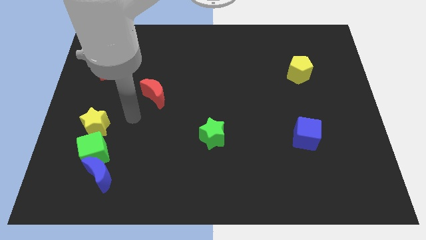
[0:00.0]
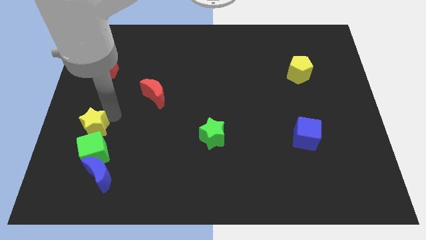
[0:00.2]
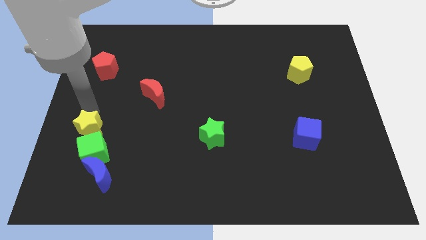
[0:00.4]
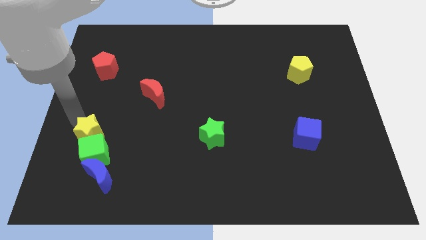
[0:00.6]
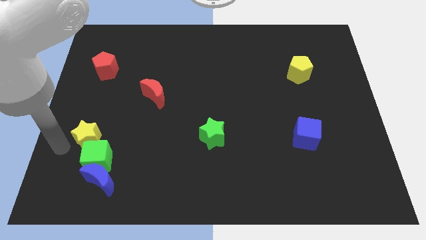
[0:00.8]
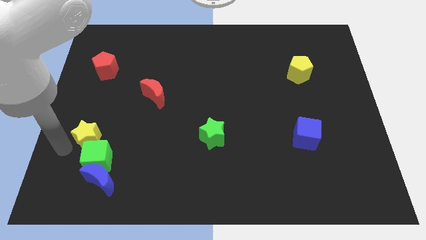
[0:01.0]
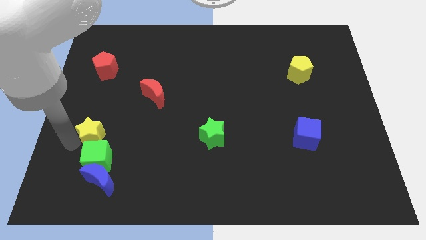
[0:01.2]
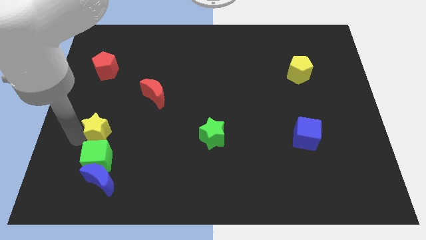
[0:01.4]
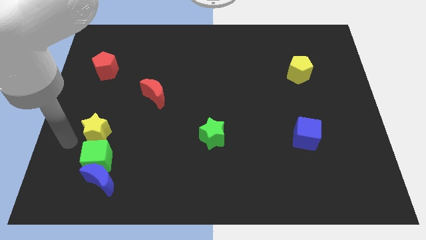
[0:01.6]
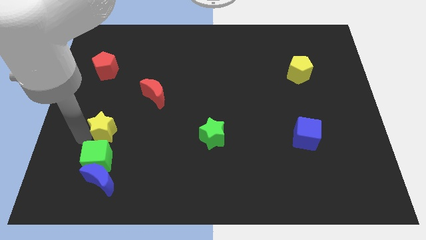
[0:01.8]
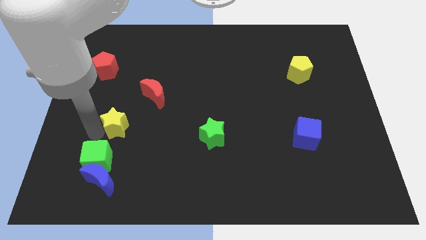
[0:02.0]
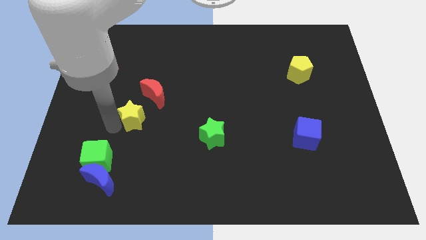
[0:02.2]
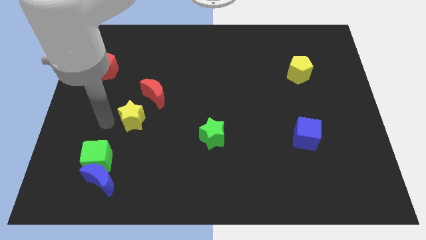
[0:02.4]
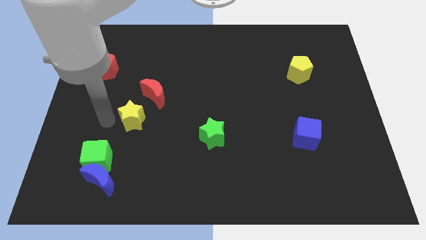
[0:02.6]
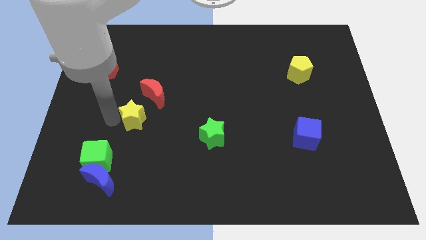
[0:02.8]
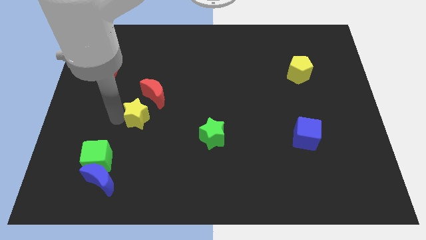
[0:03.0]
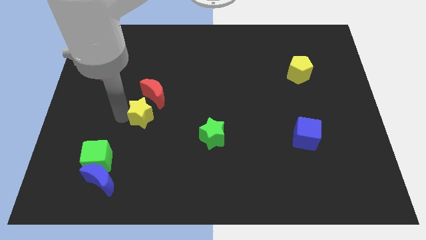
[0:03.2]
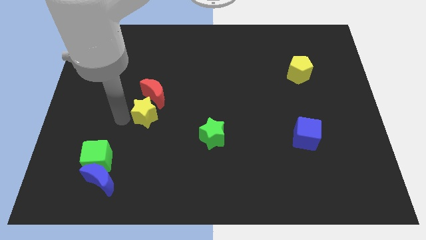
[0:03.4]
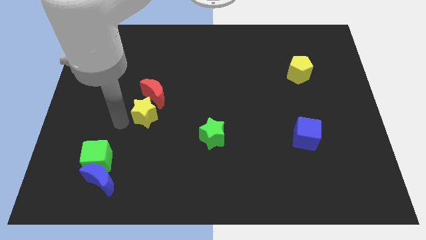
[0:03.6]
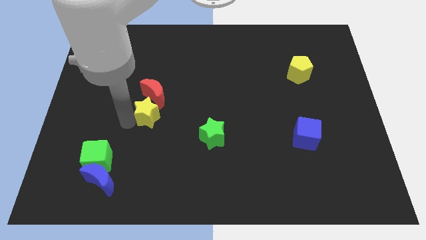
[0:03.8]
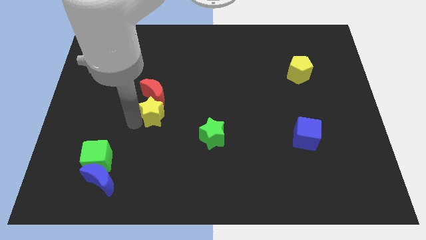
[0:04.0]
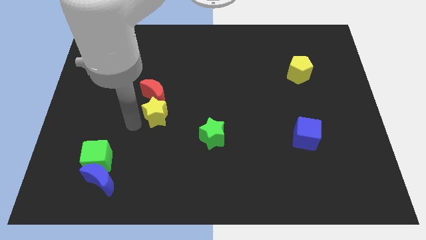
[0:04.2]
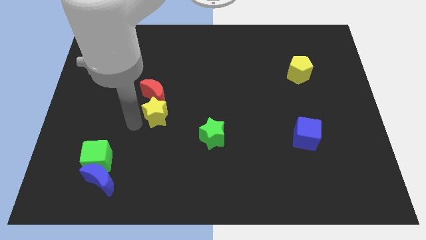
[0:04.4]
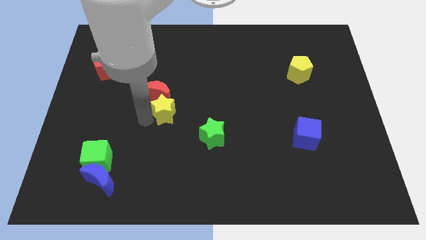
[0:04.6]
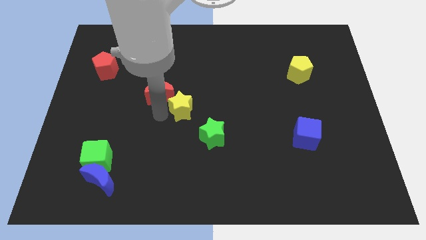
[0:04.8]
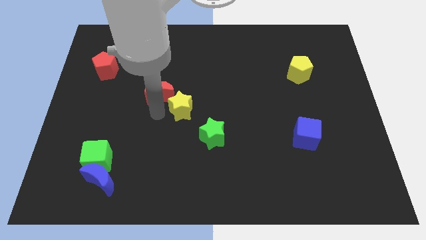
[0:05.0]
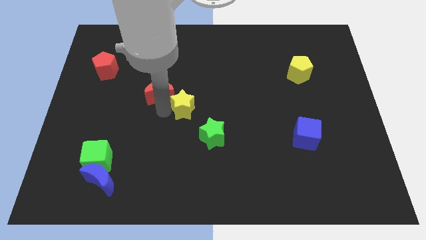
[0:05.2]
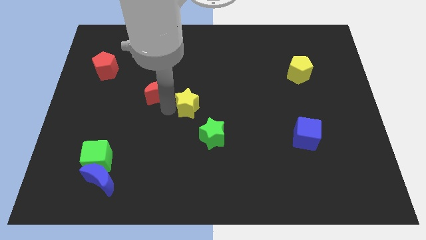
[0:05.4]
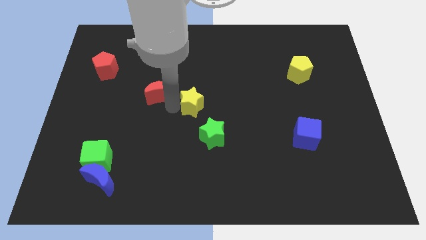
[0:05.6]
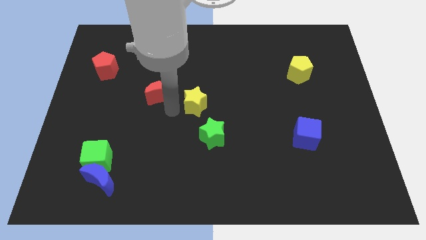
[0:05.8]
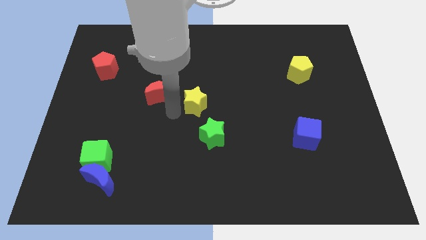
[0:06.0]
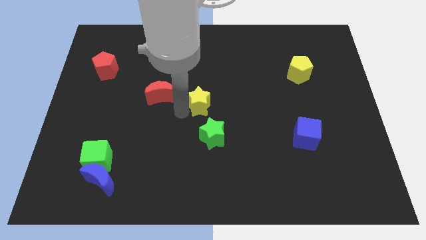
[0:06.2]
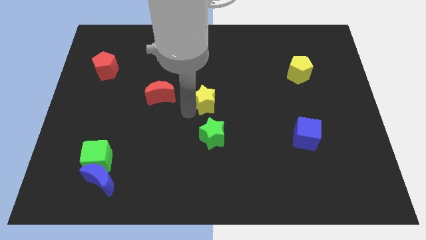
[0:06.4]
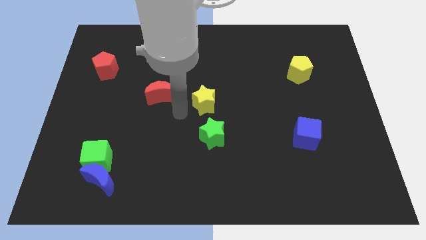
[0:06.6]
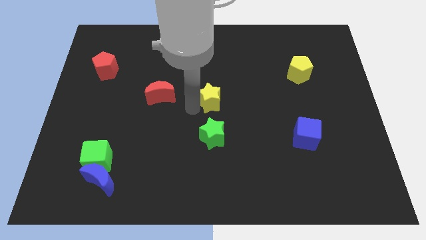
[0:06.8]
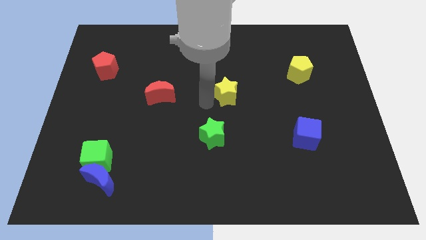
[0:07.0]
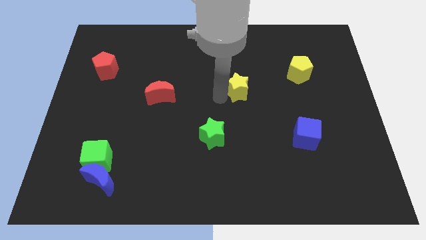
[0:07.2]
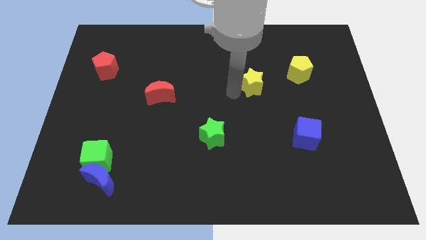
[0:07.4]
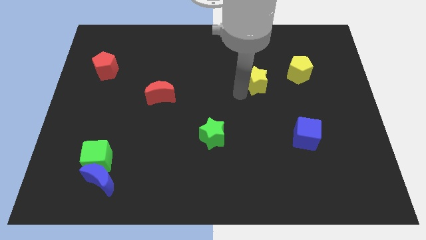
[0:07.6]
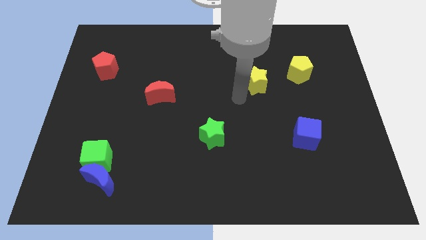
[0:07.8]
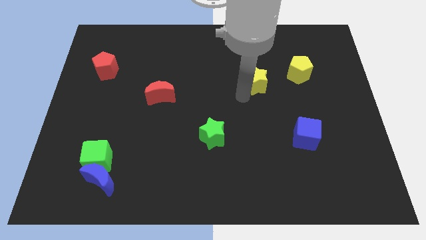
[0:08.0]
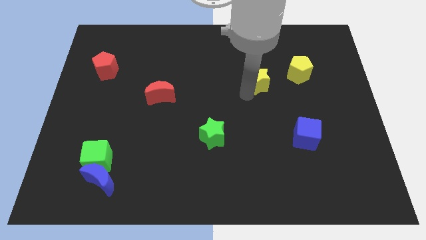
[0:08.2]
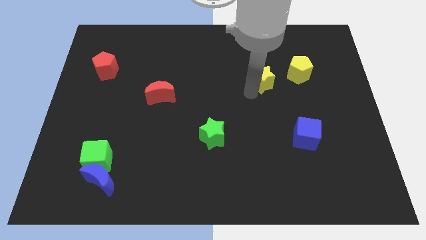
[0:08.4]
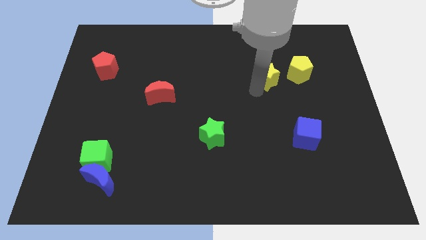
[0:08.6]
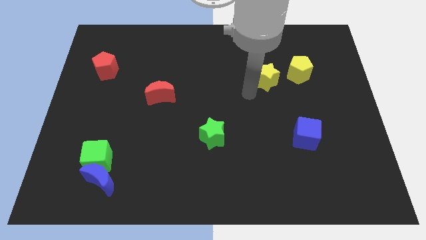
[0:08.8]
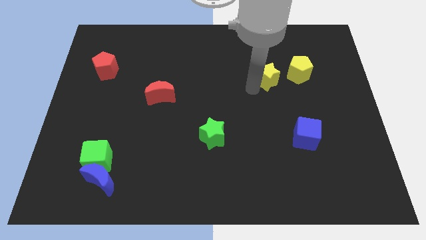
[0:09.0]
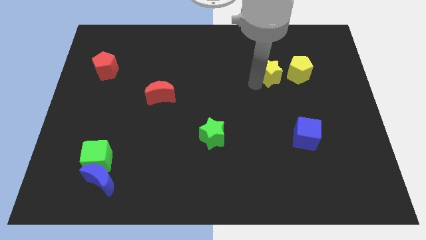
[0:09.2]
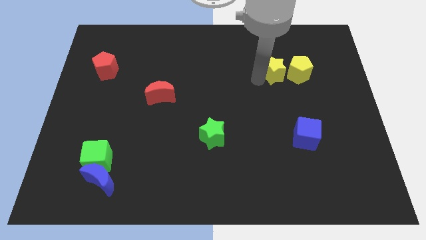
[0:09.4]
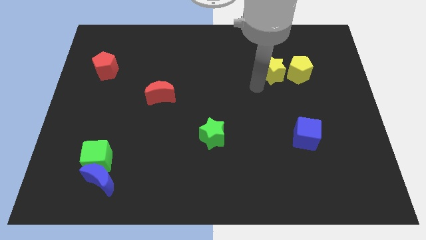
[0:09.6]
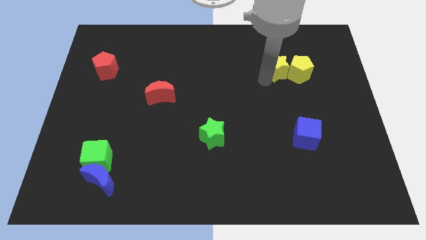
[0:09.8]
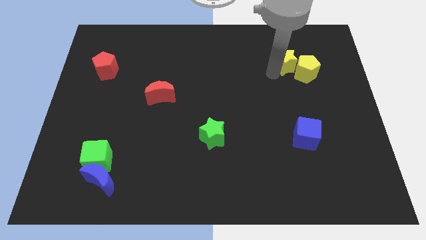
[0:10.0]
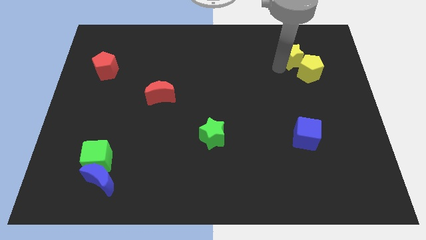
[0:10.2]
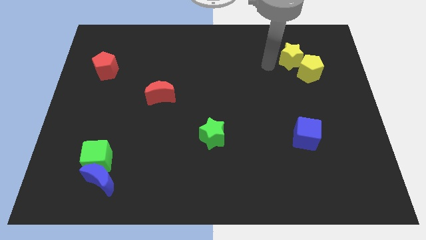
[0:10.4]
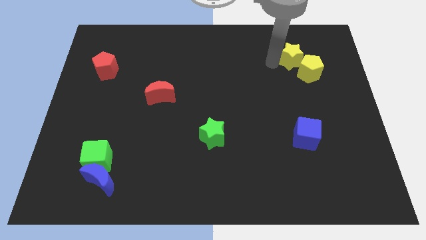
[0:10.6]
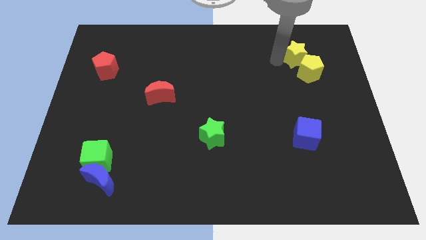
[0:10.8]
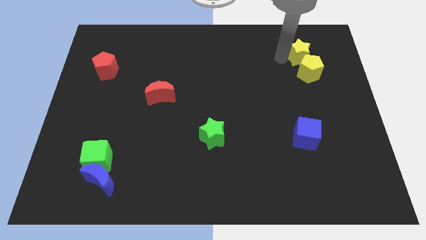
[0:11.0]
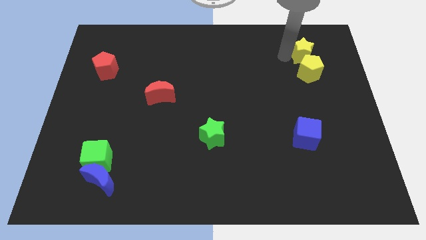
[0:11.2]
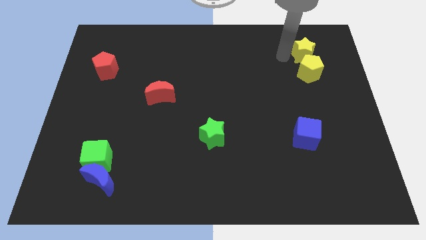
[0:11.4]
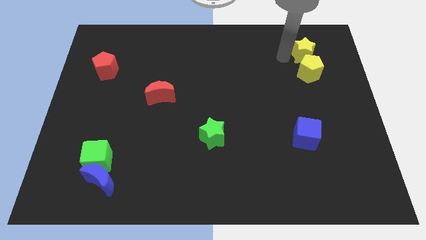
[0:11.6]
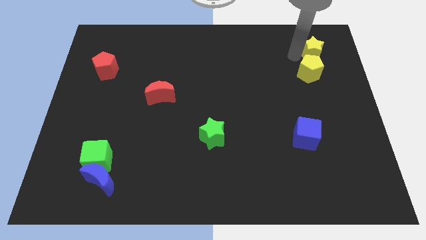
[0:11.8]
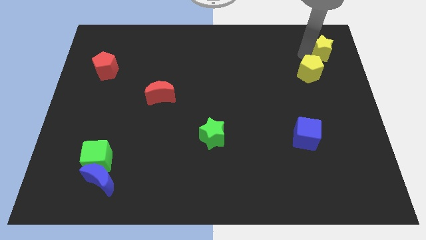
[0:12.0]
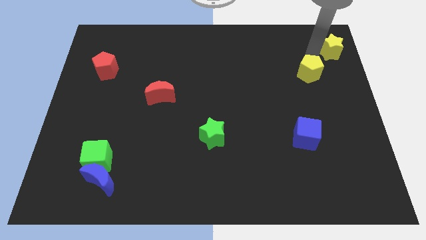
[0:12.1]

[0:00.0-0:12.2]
move the yellow star to the top right of the board

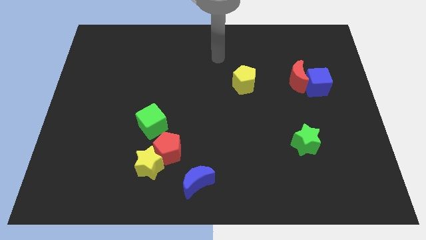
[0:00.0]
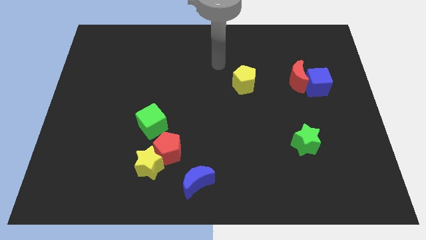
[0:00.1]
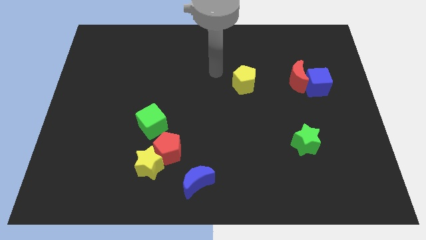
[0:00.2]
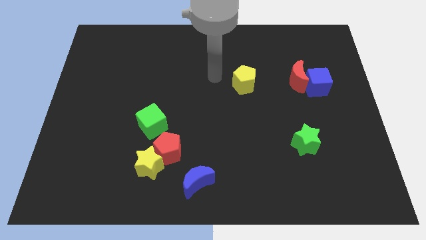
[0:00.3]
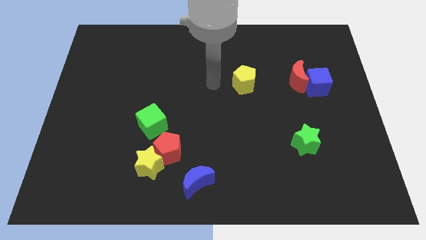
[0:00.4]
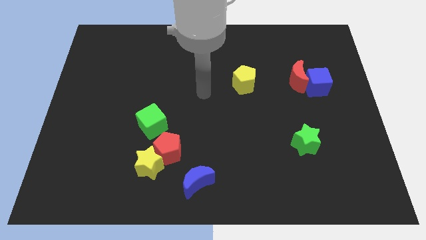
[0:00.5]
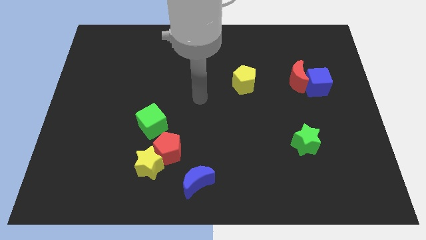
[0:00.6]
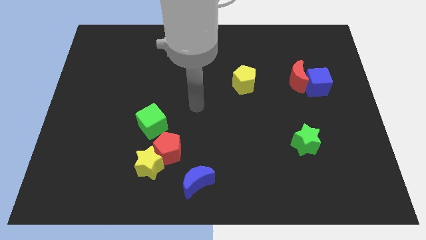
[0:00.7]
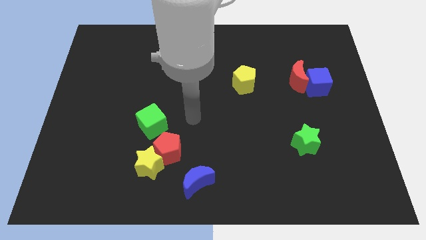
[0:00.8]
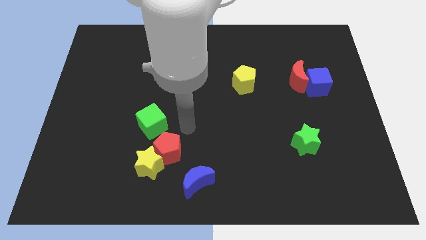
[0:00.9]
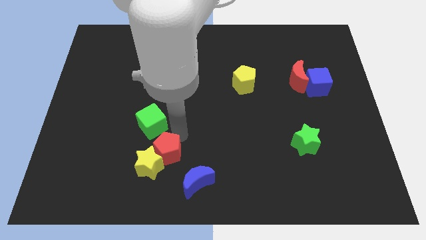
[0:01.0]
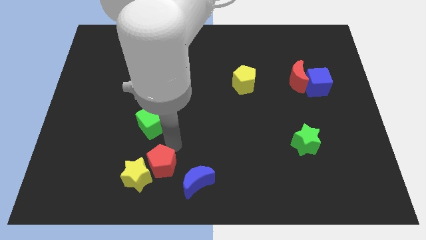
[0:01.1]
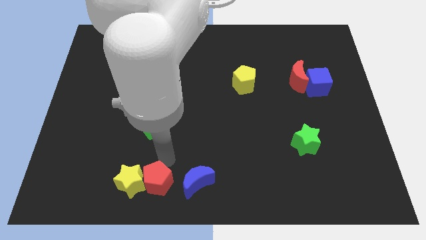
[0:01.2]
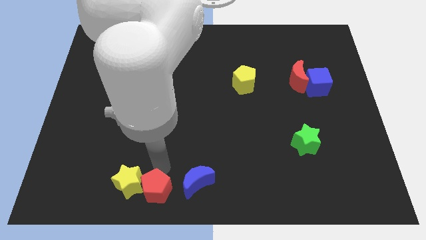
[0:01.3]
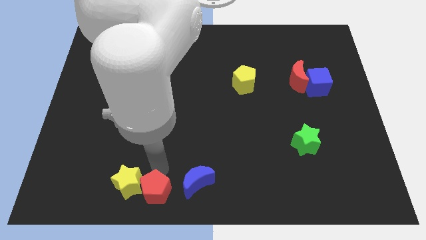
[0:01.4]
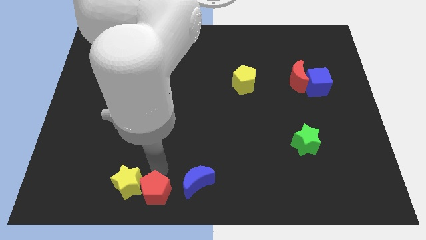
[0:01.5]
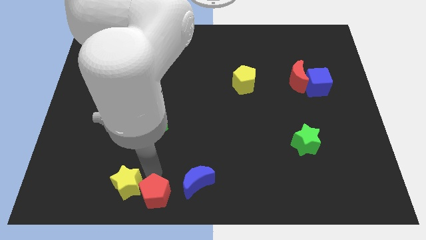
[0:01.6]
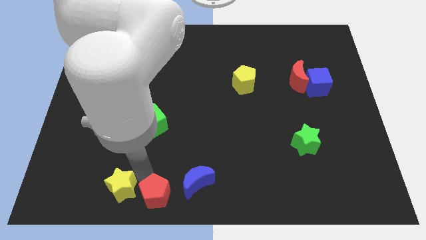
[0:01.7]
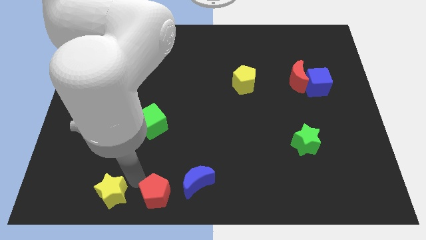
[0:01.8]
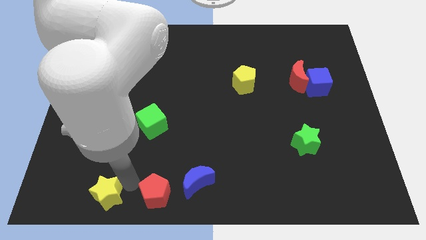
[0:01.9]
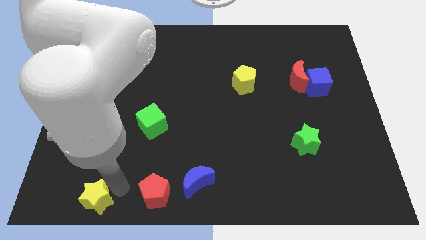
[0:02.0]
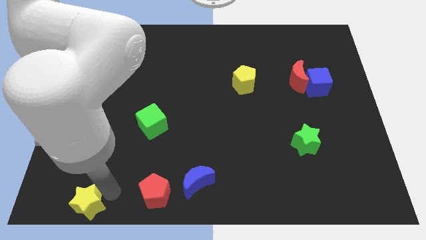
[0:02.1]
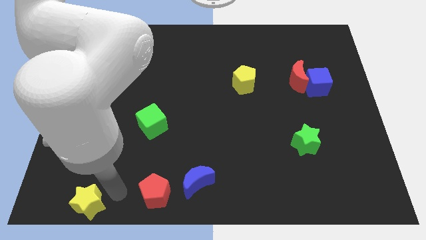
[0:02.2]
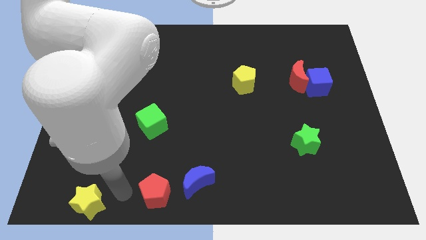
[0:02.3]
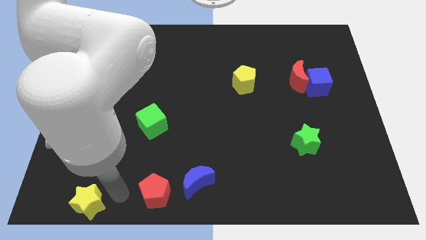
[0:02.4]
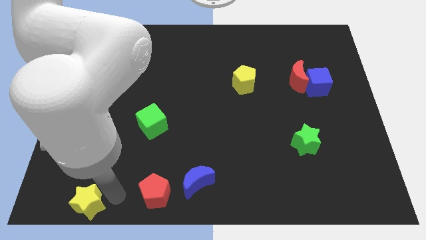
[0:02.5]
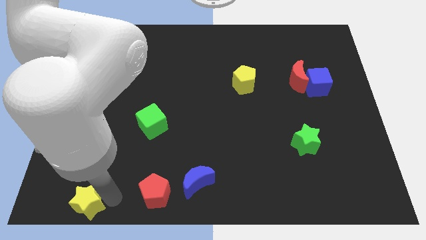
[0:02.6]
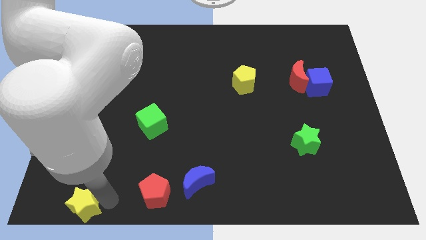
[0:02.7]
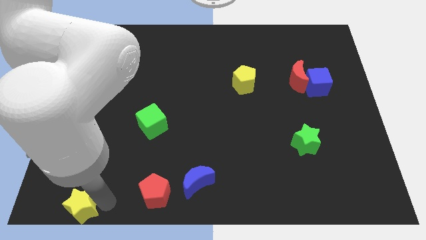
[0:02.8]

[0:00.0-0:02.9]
move the yellow star to the bottom left of the board
